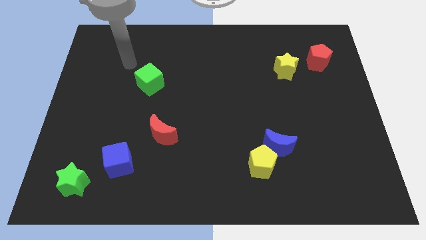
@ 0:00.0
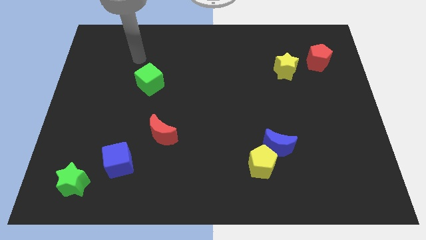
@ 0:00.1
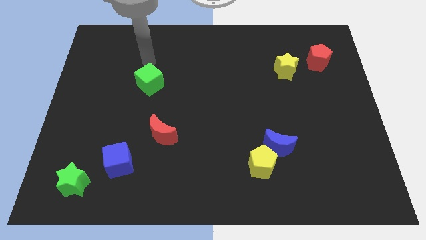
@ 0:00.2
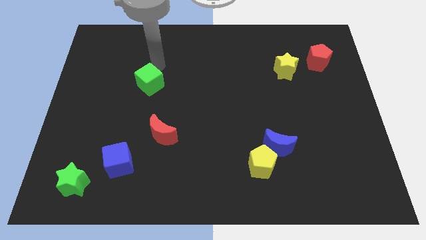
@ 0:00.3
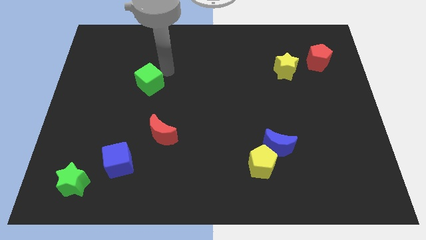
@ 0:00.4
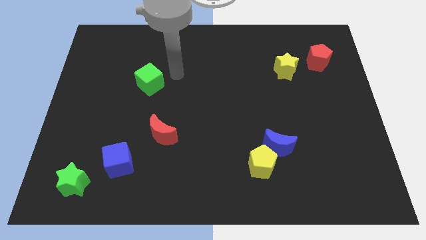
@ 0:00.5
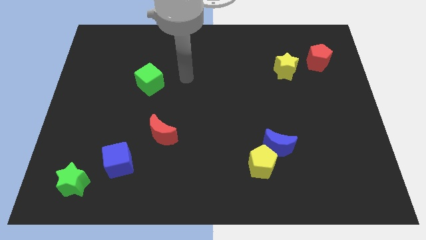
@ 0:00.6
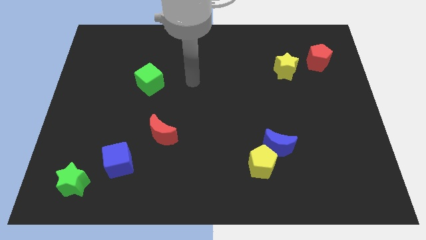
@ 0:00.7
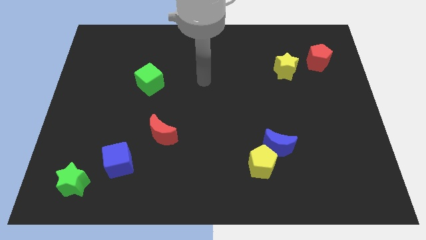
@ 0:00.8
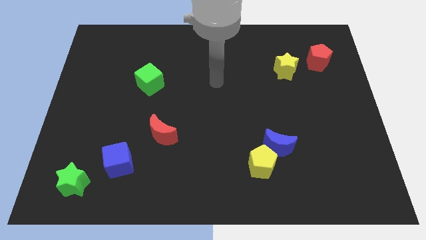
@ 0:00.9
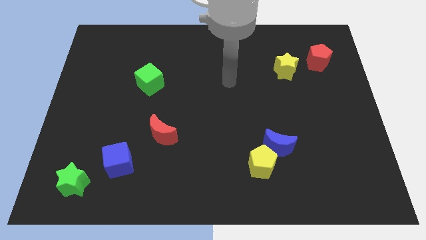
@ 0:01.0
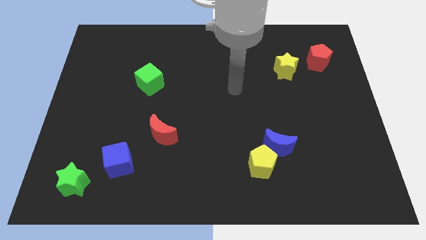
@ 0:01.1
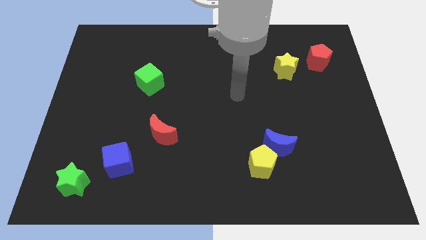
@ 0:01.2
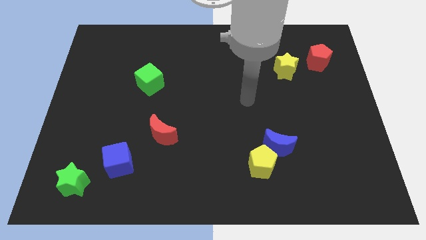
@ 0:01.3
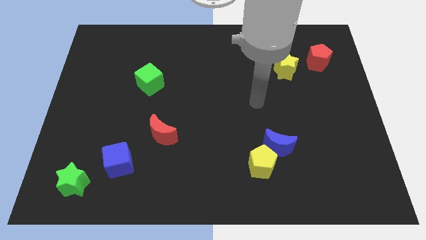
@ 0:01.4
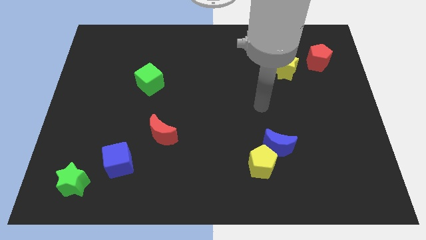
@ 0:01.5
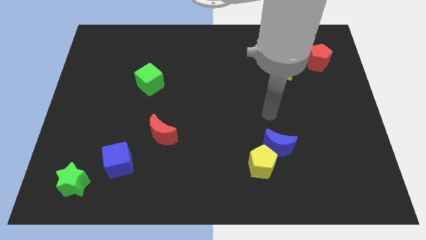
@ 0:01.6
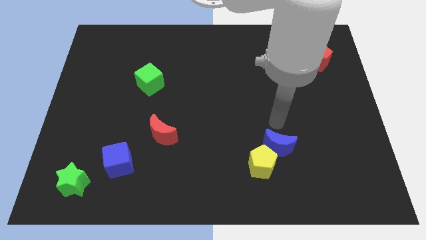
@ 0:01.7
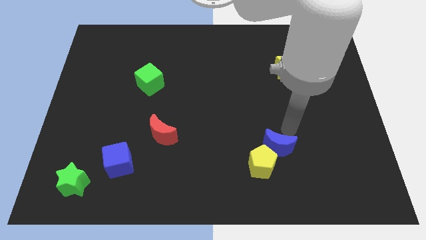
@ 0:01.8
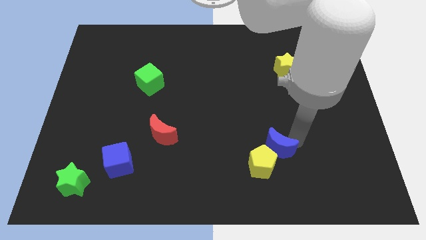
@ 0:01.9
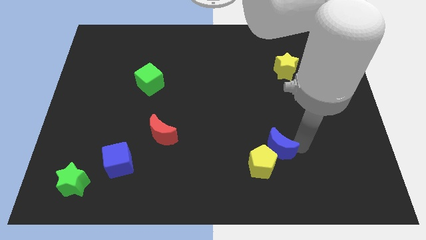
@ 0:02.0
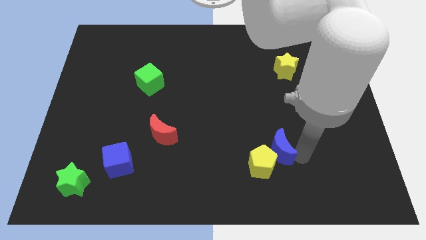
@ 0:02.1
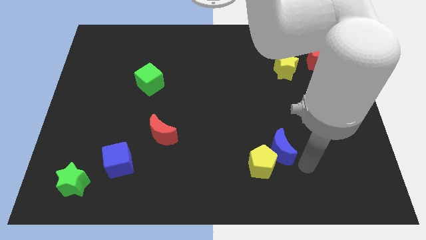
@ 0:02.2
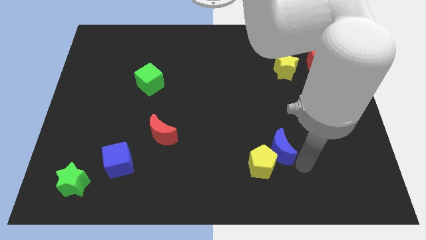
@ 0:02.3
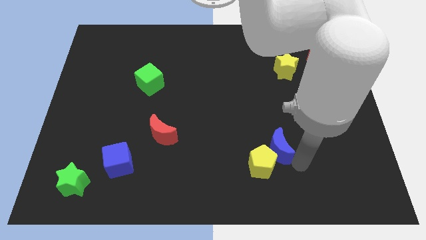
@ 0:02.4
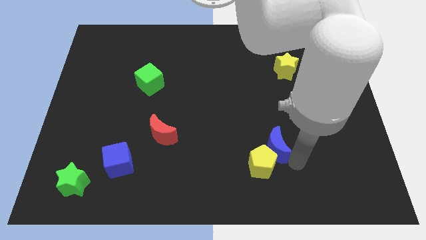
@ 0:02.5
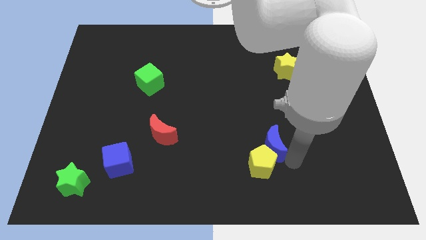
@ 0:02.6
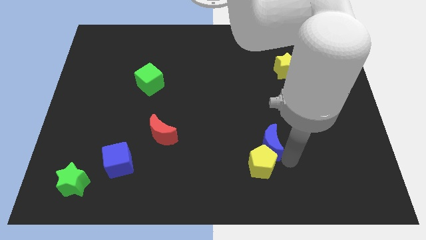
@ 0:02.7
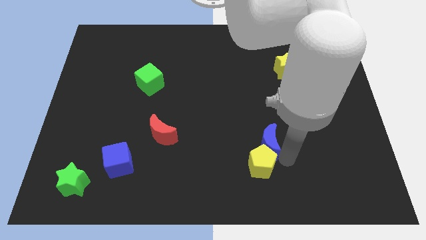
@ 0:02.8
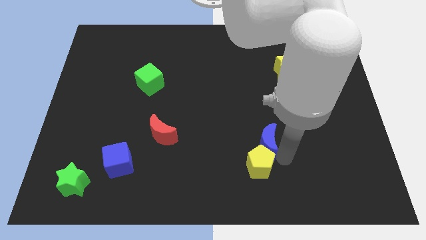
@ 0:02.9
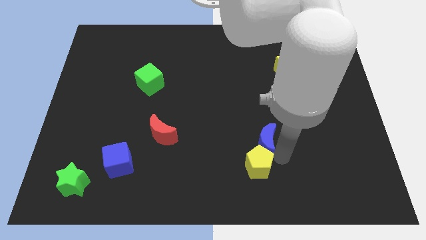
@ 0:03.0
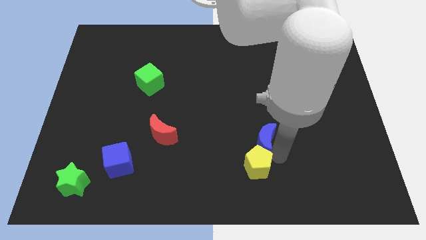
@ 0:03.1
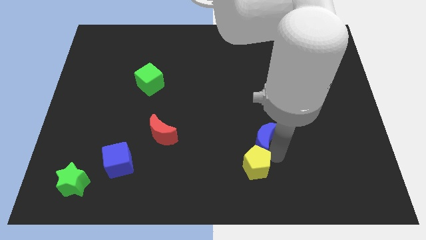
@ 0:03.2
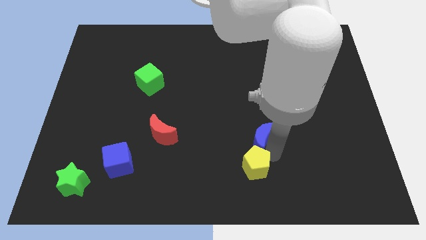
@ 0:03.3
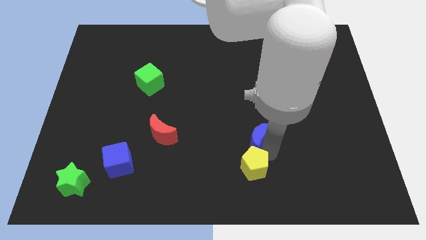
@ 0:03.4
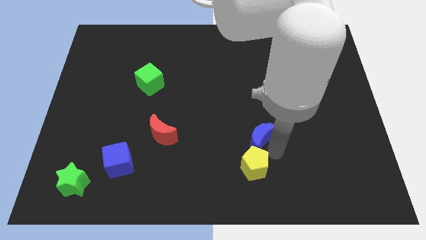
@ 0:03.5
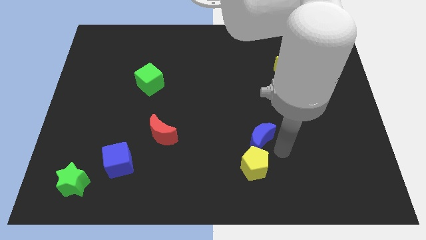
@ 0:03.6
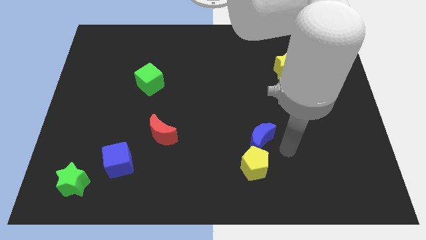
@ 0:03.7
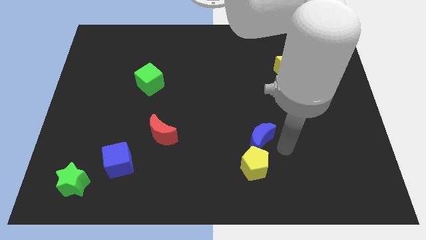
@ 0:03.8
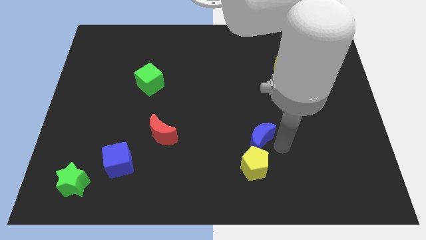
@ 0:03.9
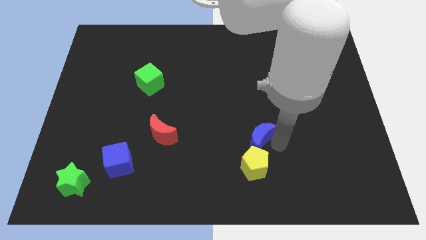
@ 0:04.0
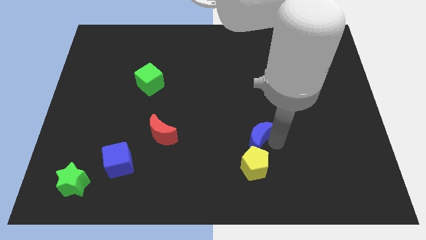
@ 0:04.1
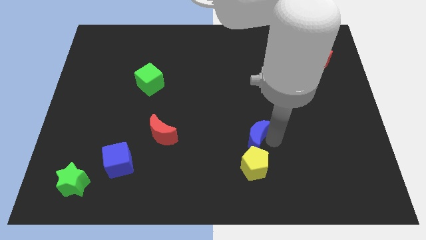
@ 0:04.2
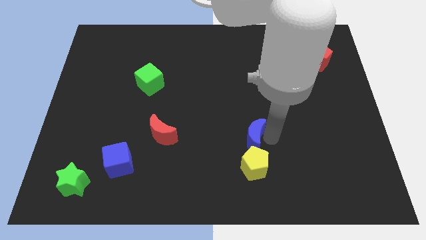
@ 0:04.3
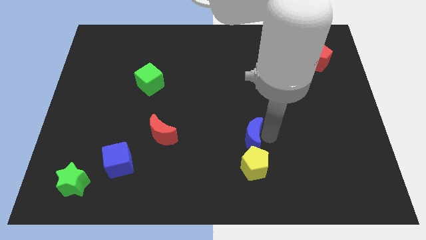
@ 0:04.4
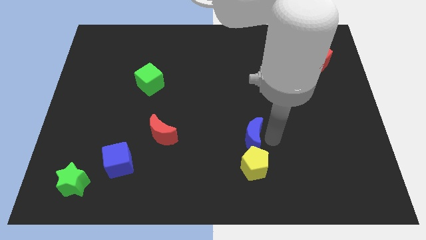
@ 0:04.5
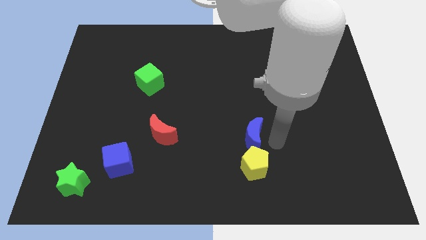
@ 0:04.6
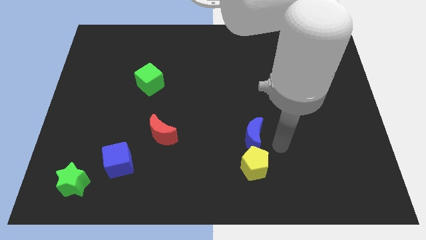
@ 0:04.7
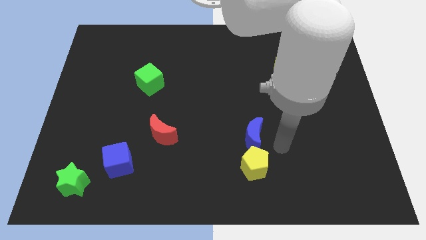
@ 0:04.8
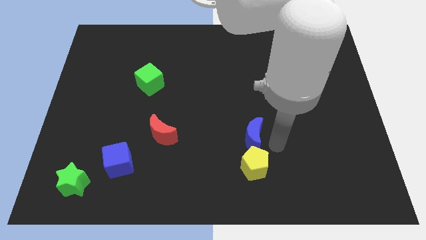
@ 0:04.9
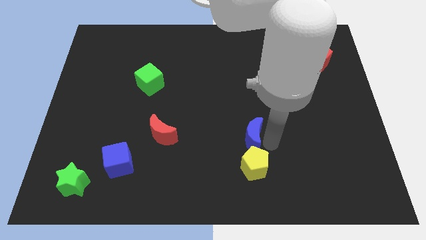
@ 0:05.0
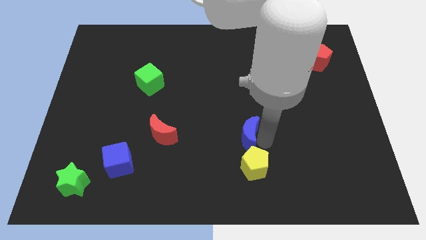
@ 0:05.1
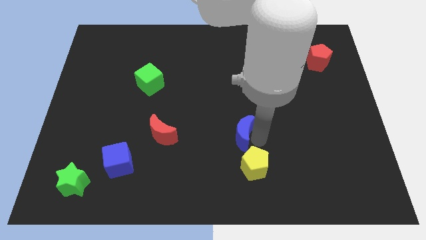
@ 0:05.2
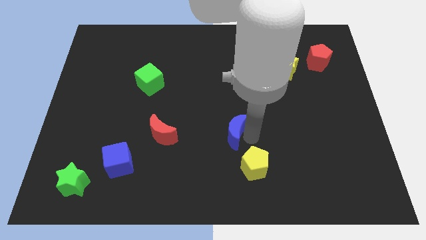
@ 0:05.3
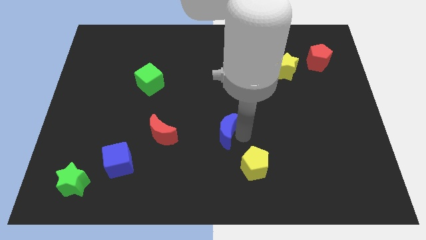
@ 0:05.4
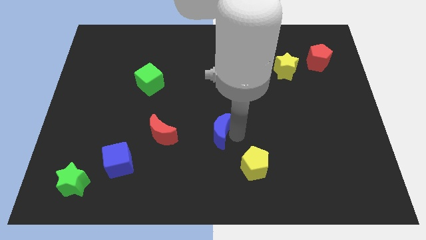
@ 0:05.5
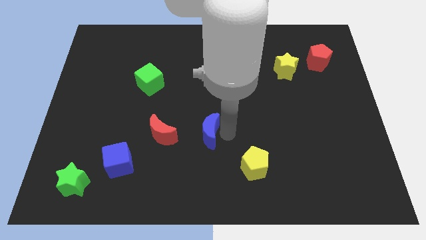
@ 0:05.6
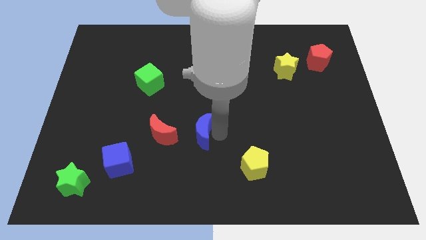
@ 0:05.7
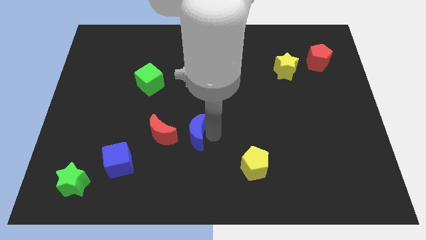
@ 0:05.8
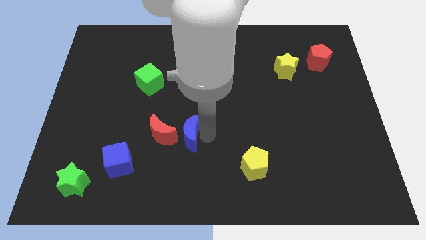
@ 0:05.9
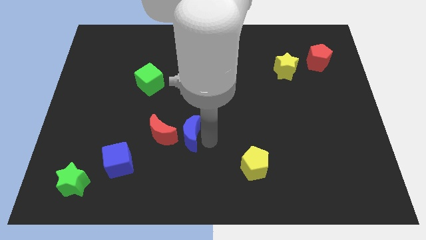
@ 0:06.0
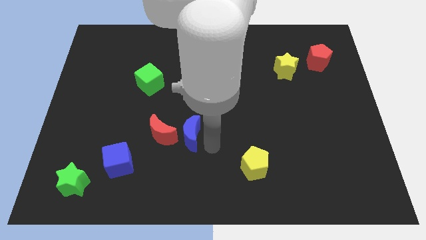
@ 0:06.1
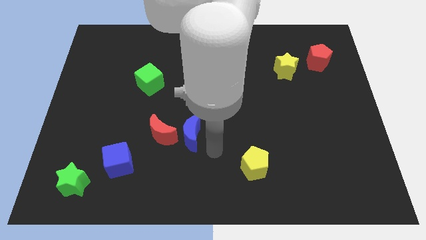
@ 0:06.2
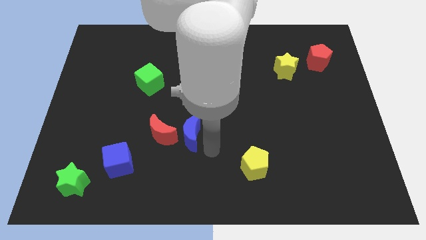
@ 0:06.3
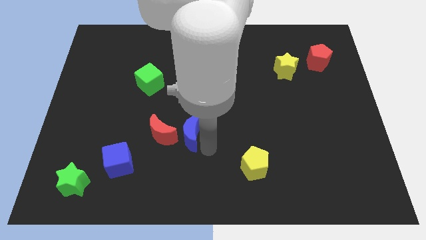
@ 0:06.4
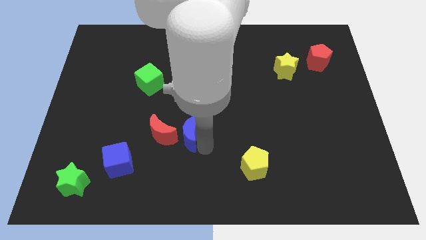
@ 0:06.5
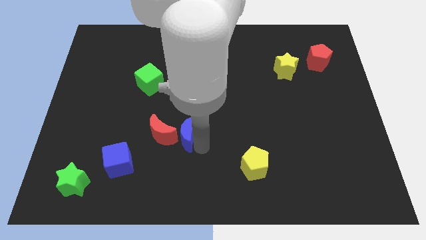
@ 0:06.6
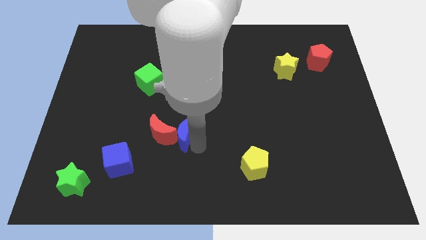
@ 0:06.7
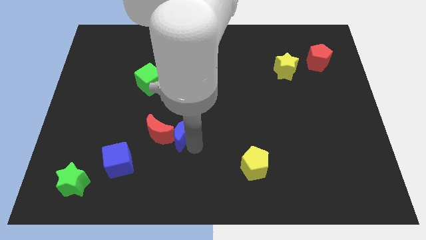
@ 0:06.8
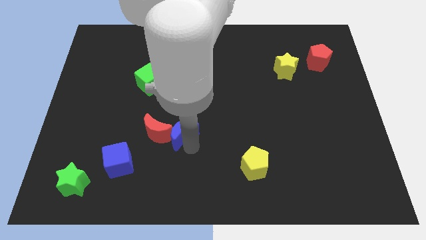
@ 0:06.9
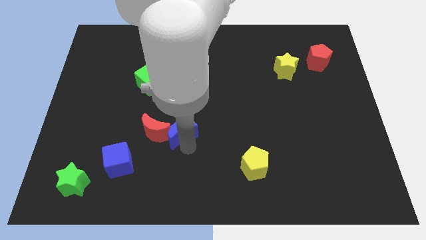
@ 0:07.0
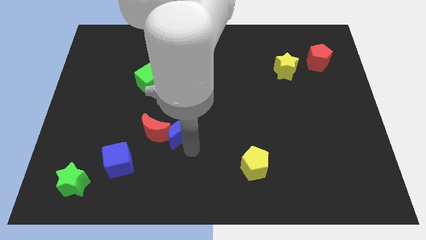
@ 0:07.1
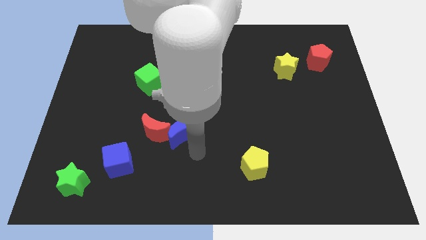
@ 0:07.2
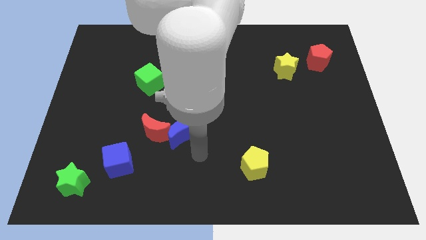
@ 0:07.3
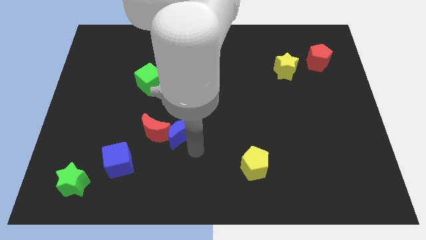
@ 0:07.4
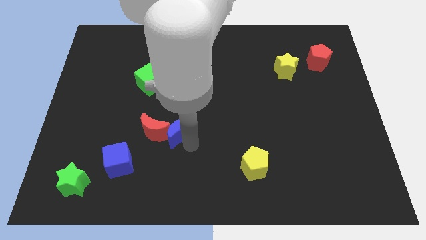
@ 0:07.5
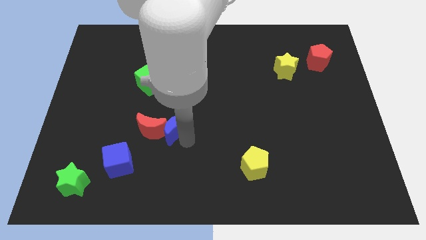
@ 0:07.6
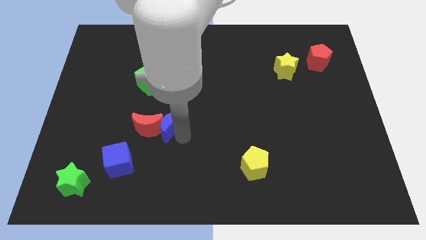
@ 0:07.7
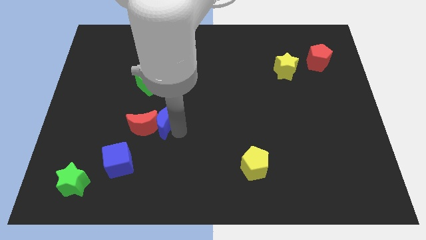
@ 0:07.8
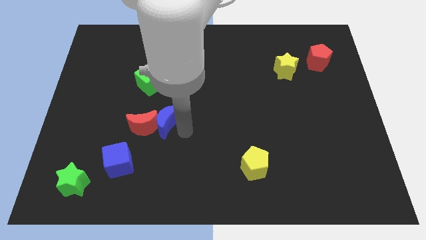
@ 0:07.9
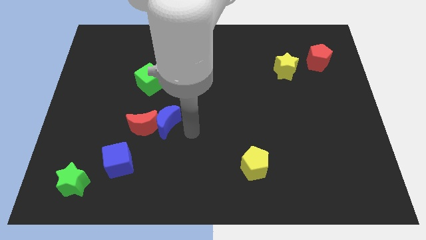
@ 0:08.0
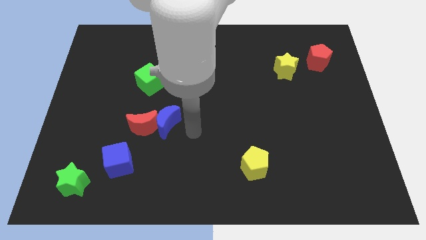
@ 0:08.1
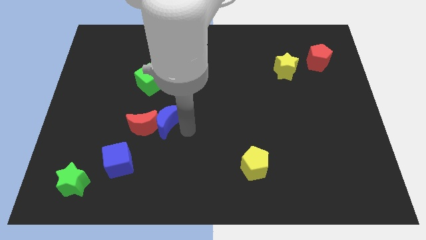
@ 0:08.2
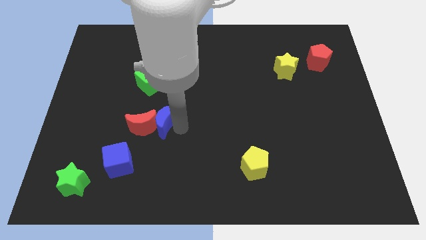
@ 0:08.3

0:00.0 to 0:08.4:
move the blue moon to the bottom of the green cube

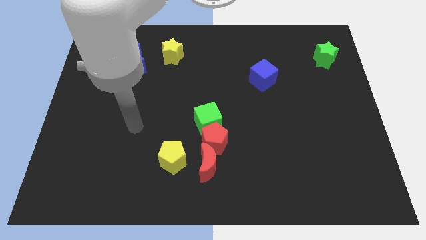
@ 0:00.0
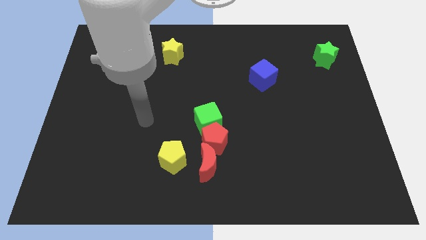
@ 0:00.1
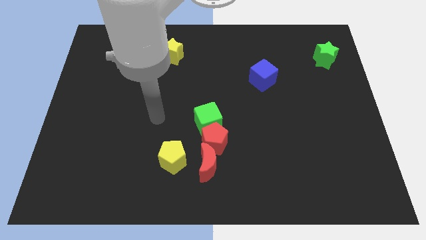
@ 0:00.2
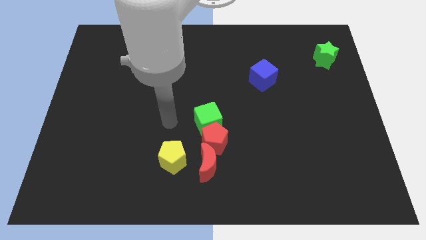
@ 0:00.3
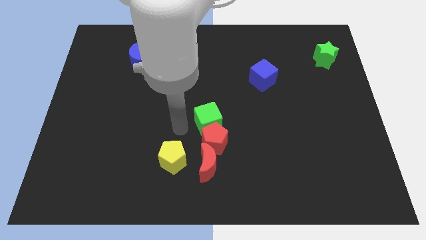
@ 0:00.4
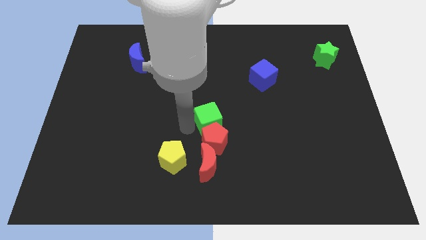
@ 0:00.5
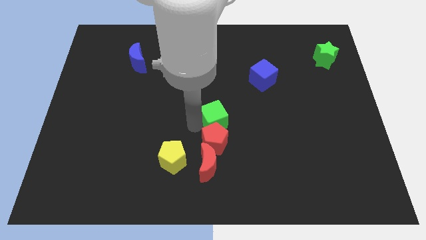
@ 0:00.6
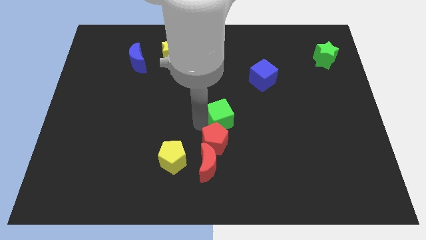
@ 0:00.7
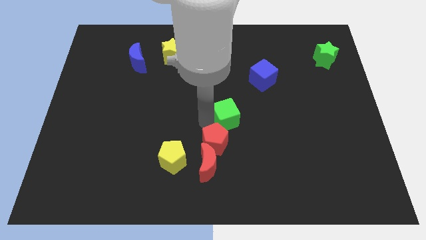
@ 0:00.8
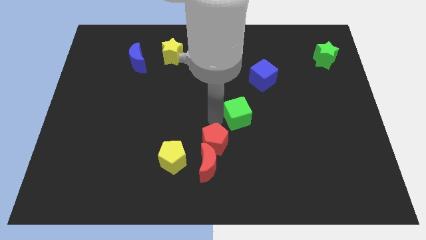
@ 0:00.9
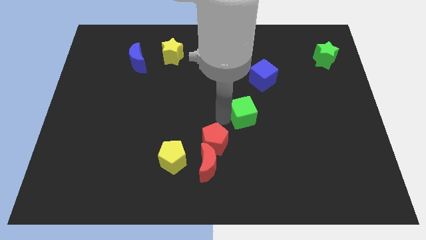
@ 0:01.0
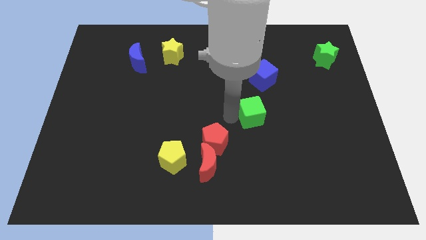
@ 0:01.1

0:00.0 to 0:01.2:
push the green cube to the bottom of the blue cube
